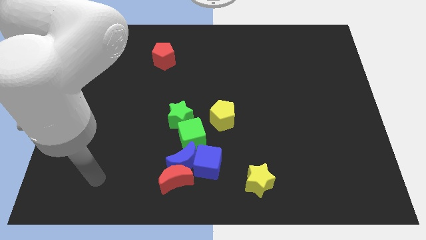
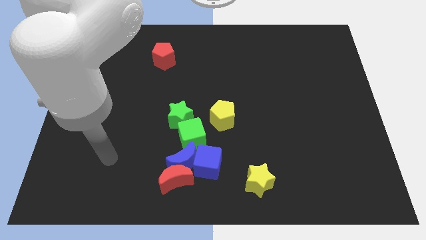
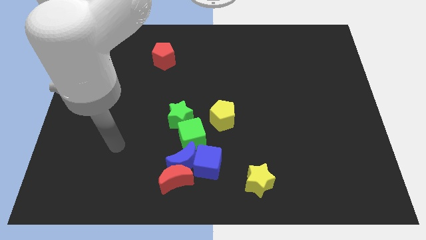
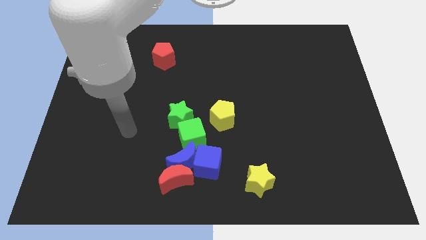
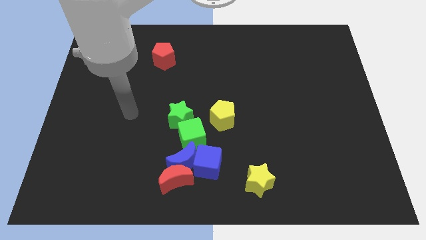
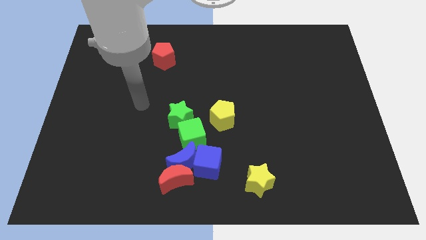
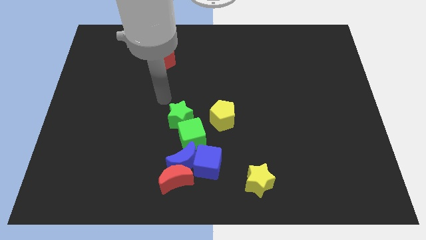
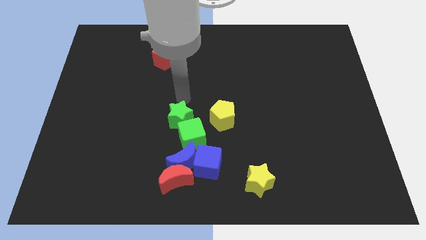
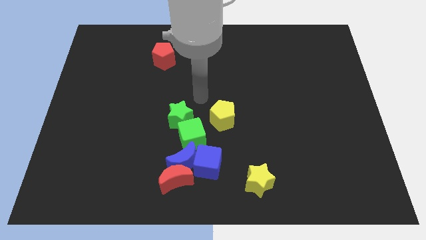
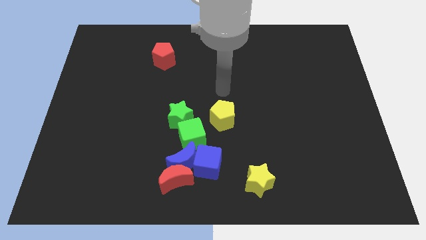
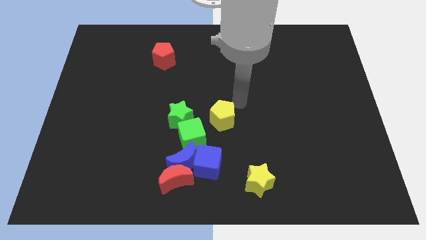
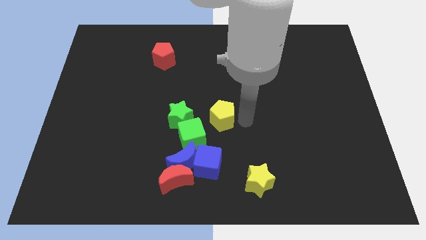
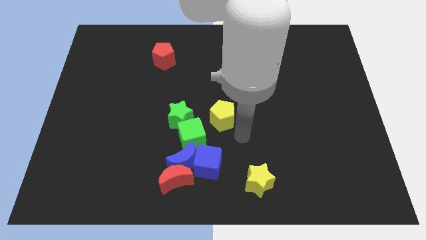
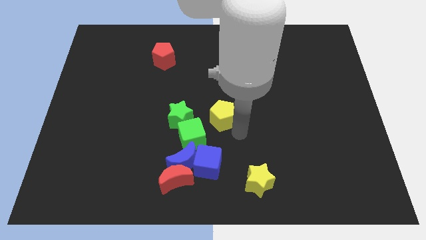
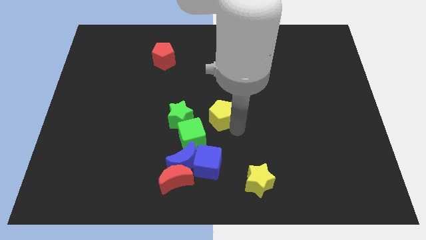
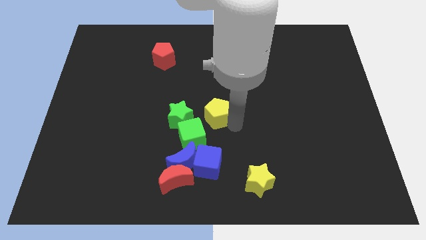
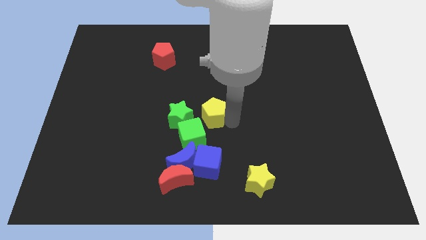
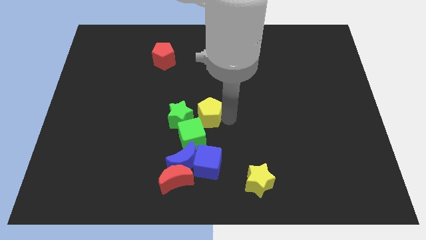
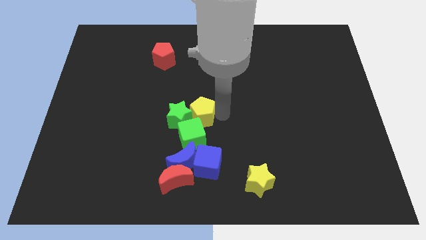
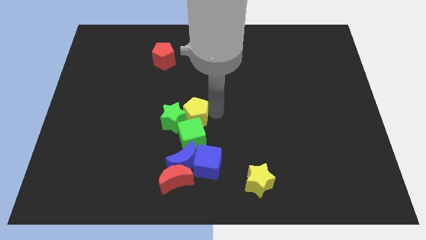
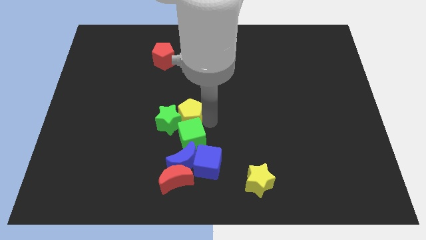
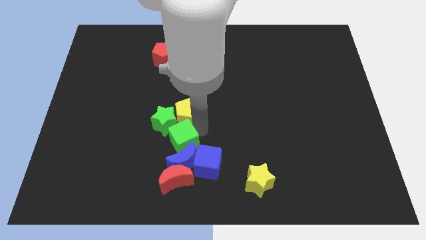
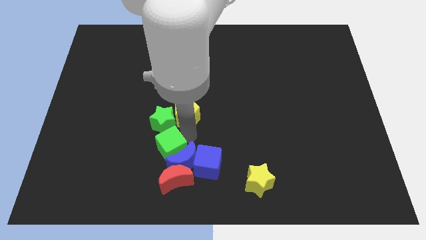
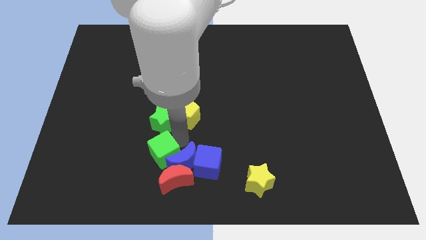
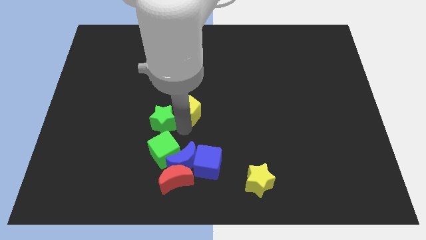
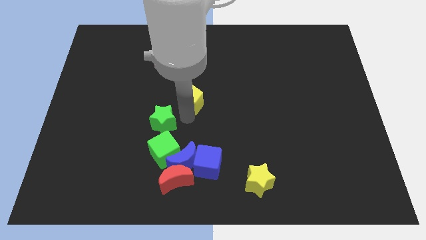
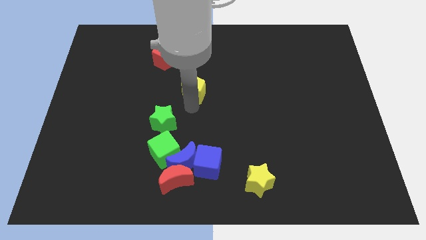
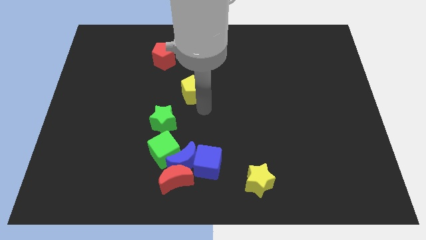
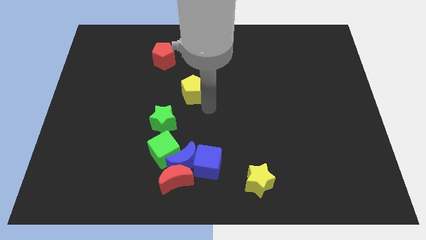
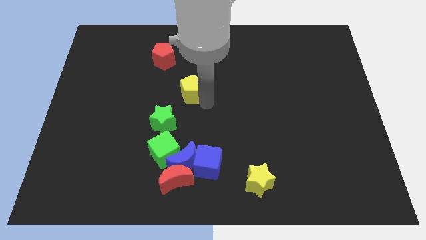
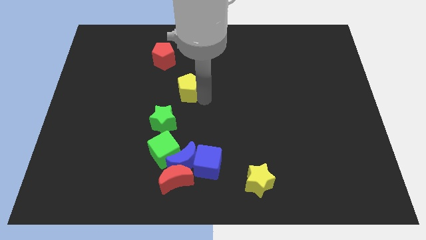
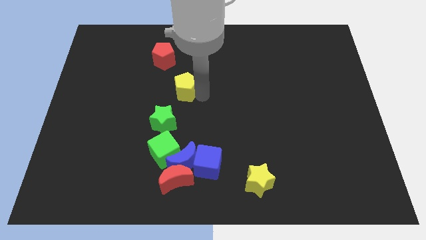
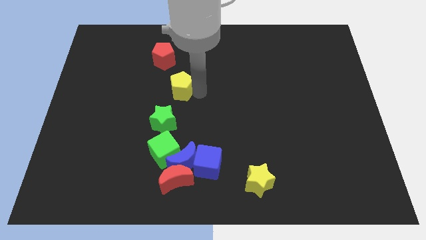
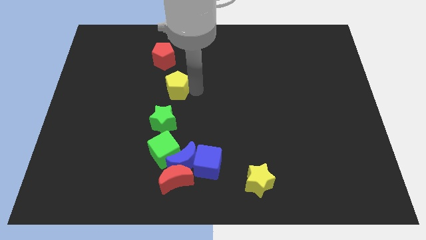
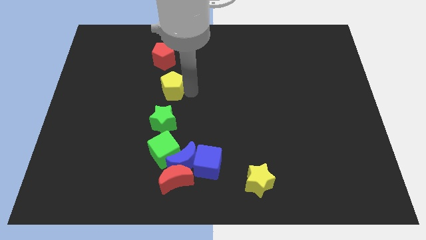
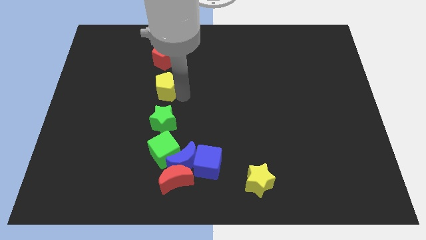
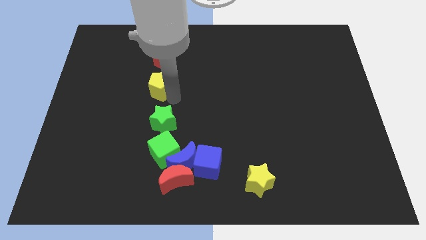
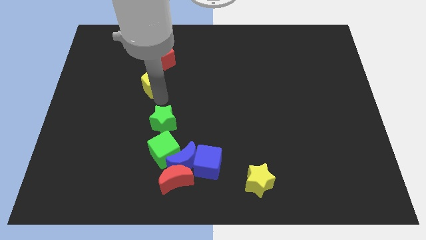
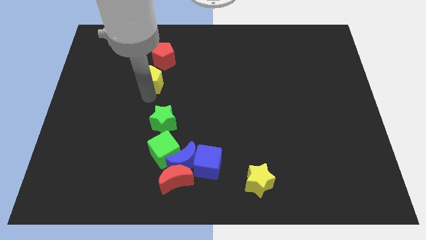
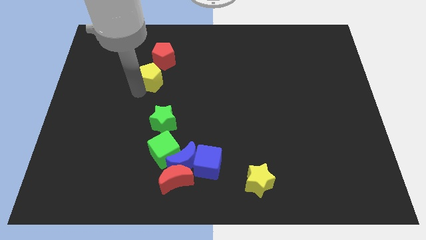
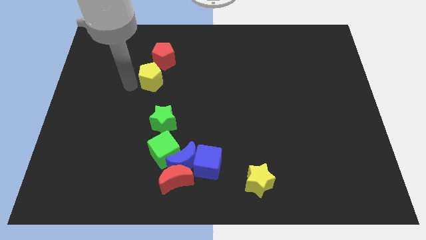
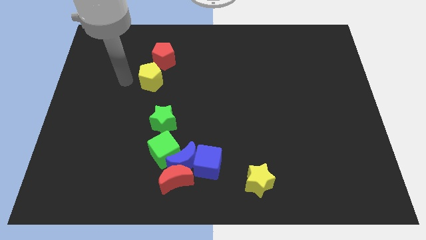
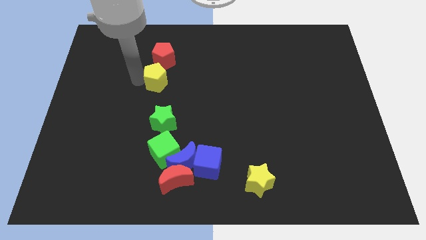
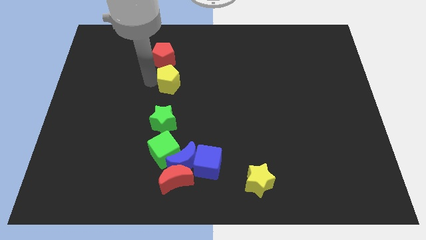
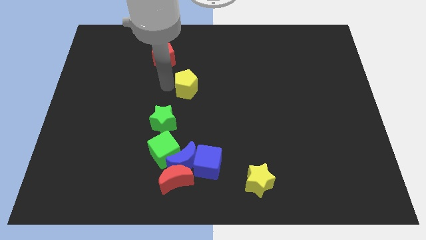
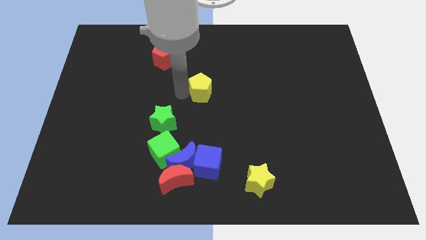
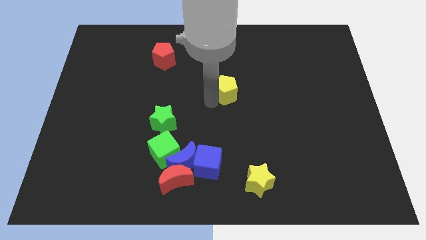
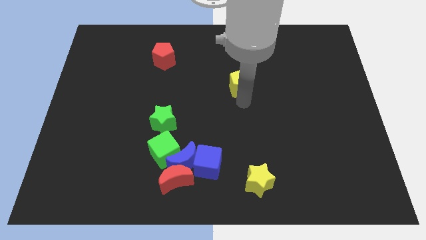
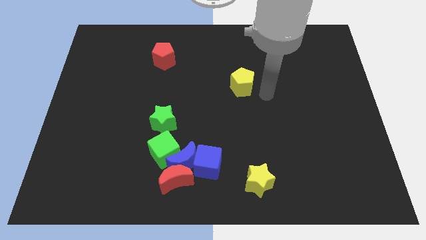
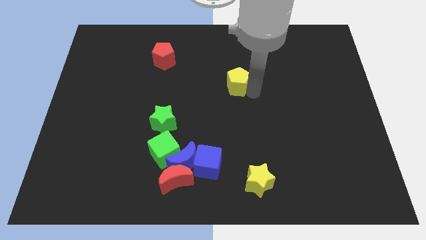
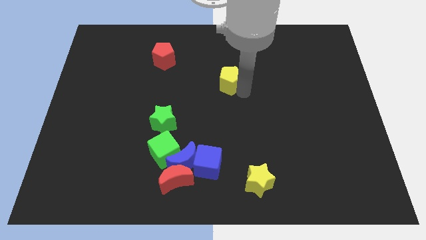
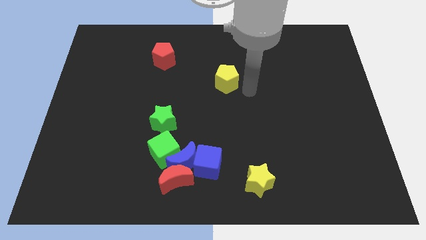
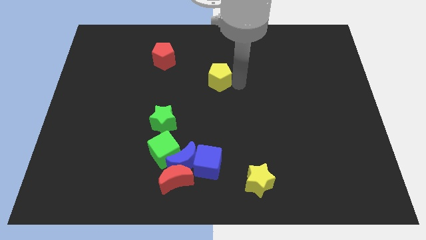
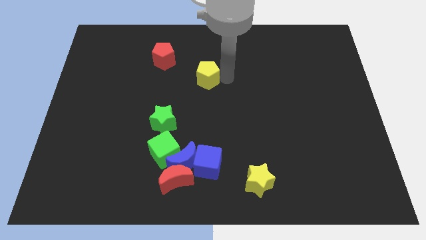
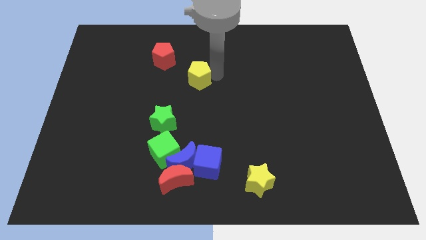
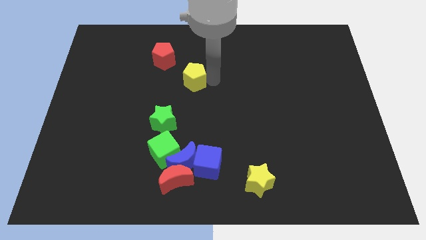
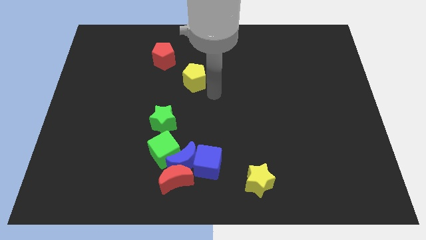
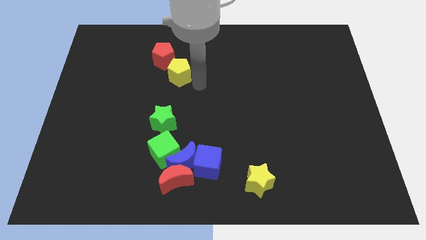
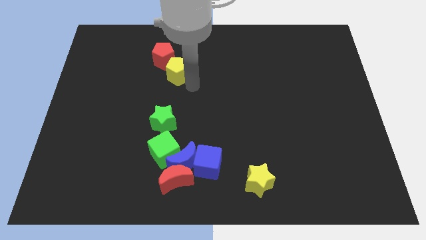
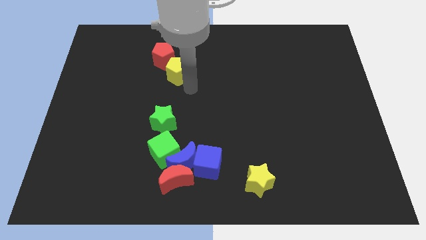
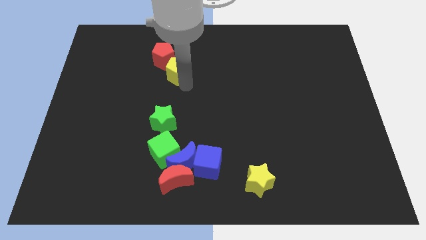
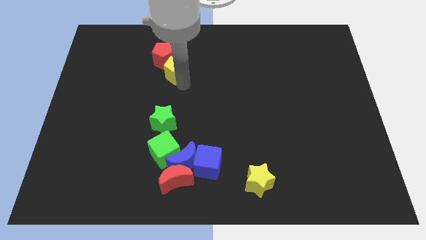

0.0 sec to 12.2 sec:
put the yellow pentagon towards the red pentagon

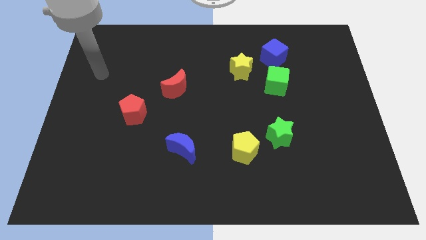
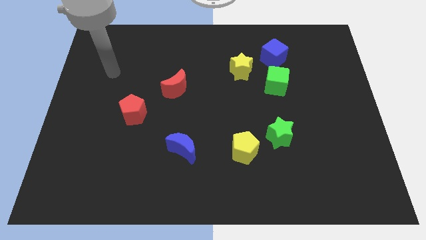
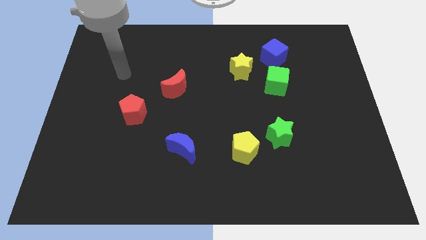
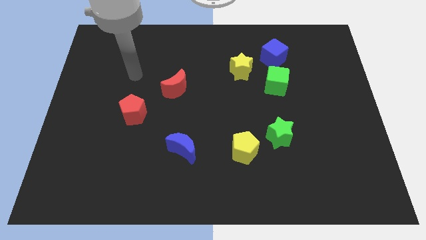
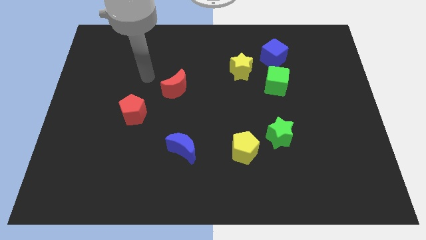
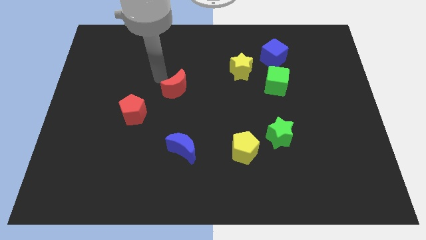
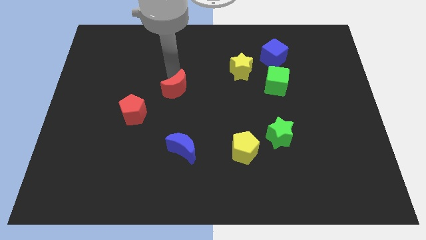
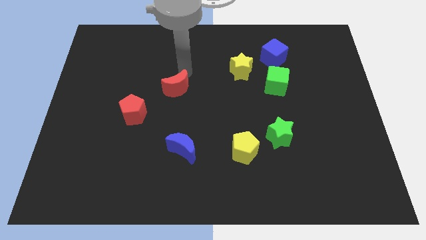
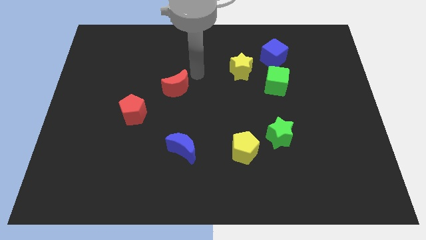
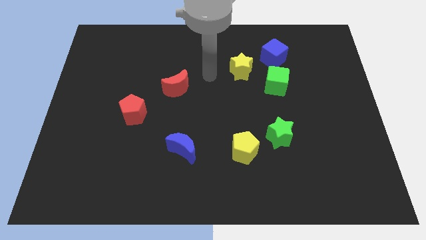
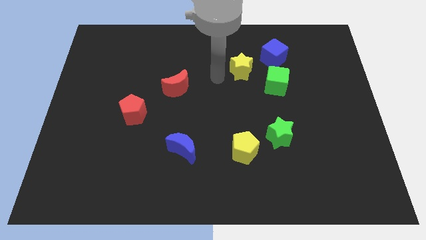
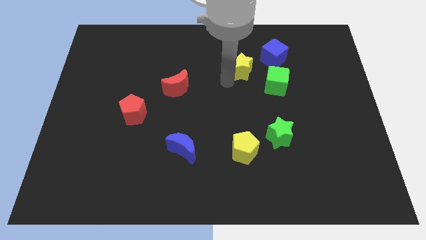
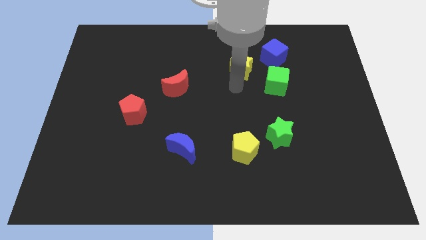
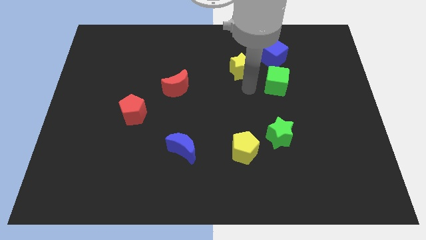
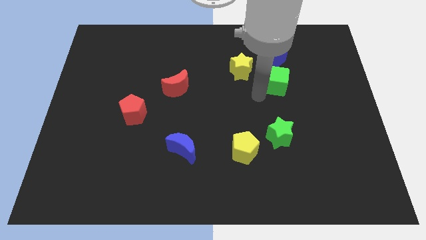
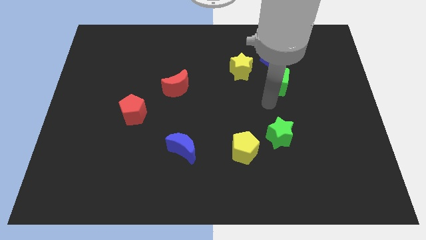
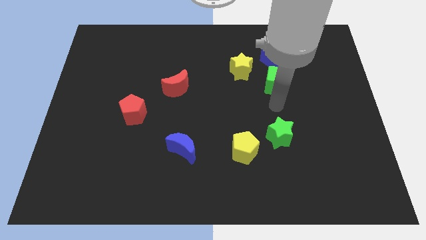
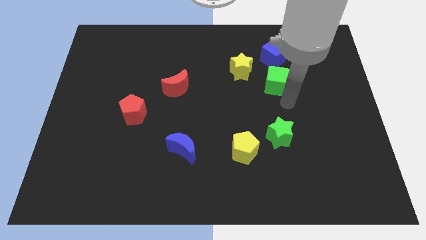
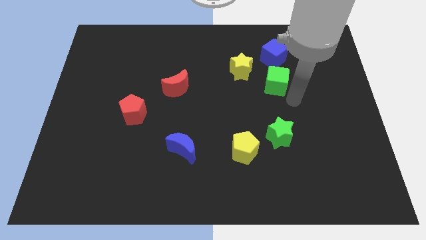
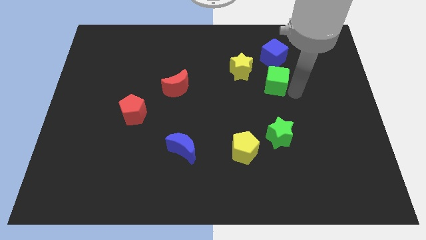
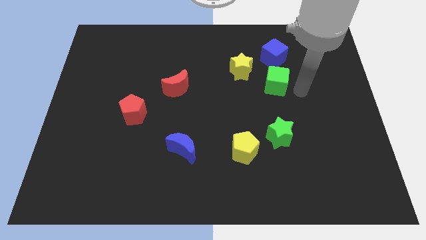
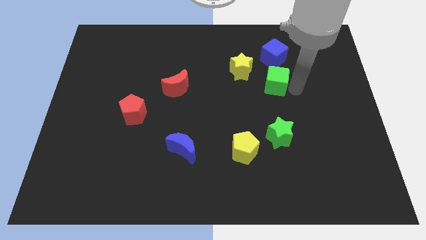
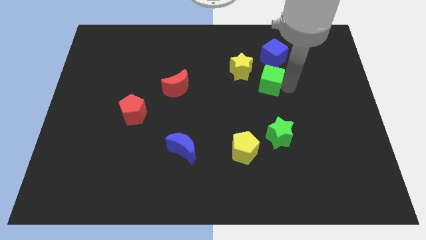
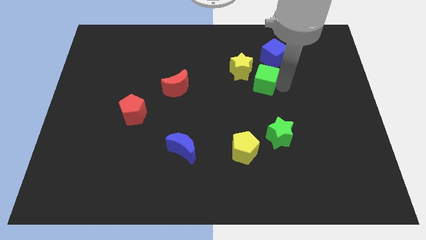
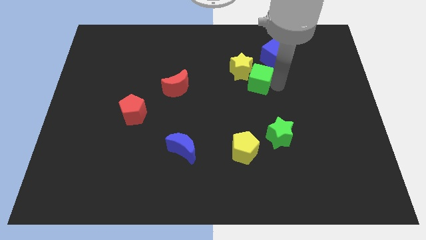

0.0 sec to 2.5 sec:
push the green cube close to the yellow star
